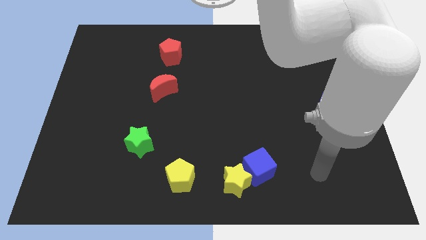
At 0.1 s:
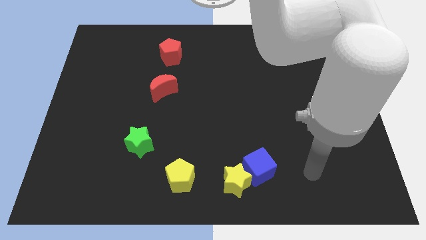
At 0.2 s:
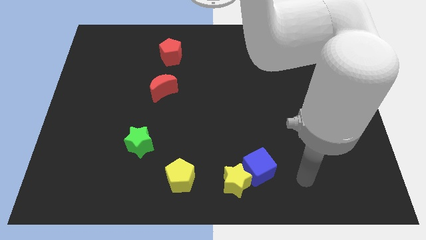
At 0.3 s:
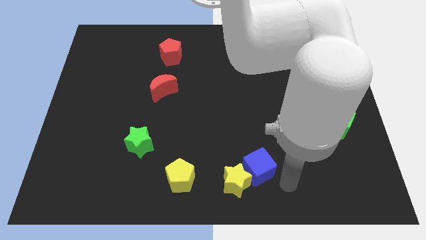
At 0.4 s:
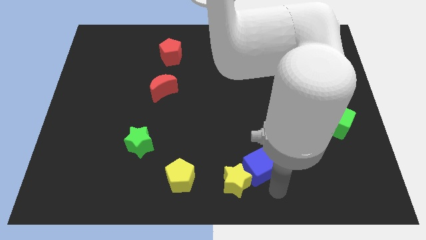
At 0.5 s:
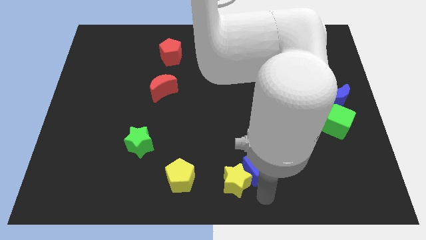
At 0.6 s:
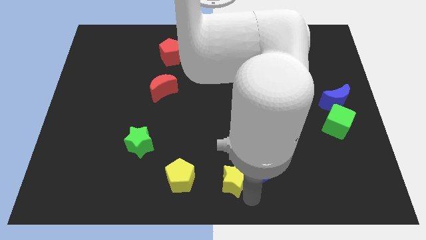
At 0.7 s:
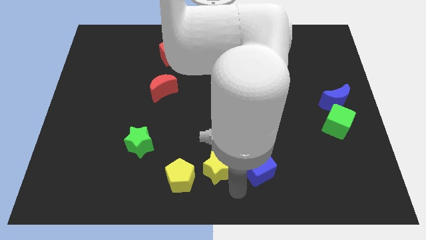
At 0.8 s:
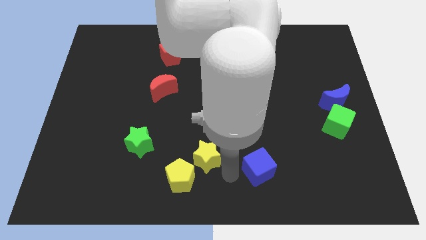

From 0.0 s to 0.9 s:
pull the blue cube apart from the yellow star

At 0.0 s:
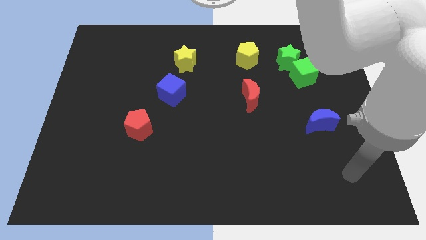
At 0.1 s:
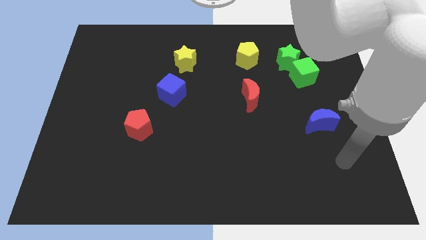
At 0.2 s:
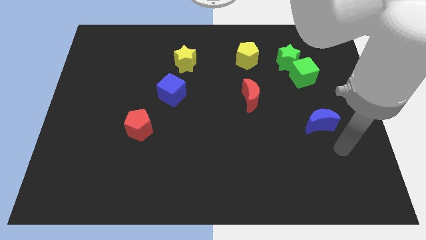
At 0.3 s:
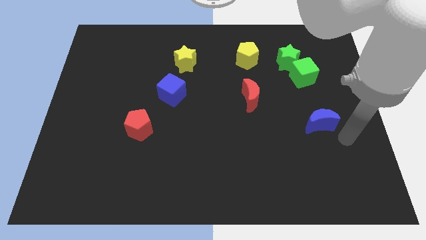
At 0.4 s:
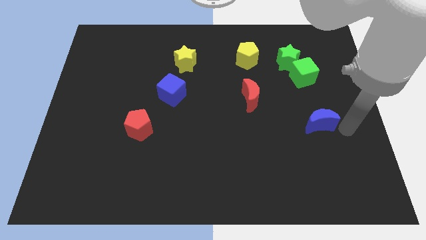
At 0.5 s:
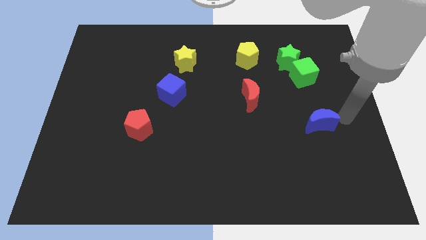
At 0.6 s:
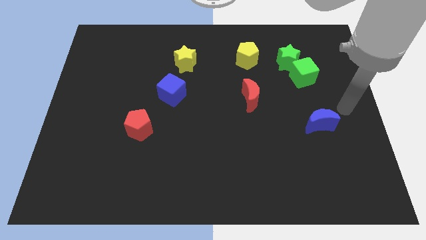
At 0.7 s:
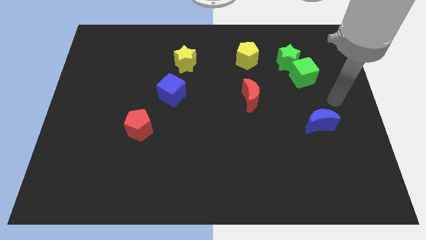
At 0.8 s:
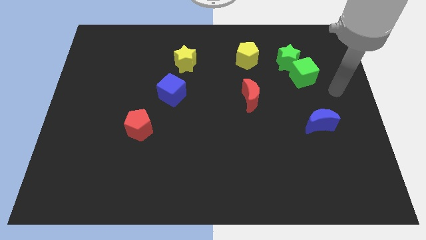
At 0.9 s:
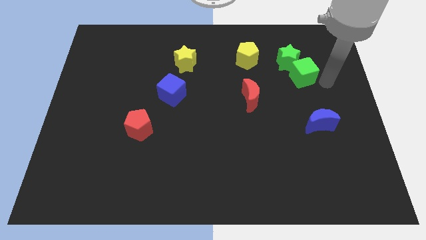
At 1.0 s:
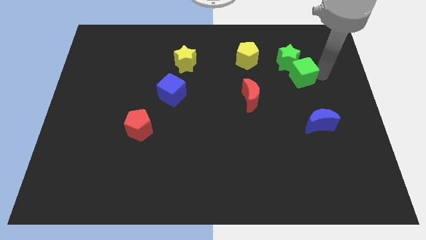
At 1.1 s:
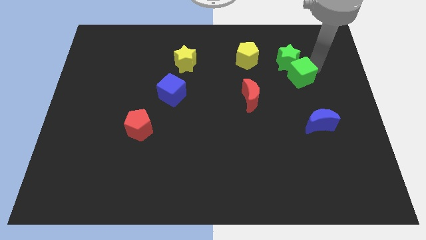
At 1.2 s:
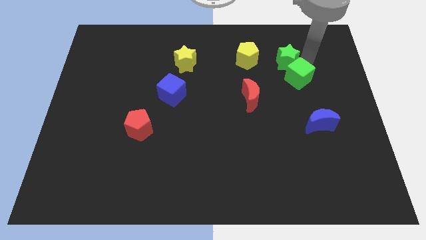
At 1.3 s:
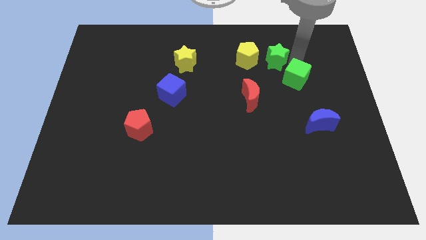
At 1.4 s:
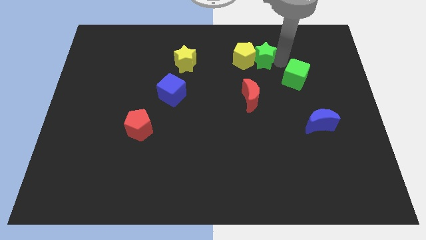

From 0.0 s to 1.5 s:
separate the green cube from the green star

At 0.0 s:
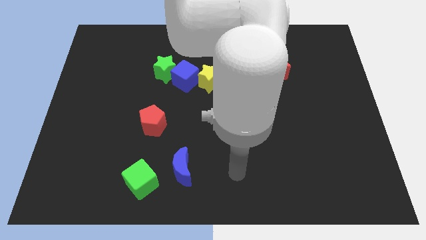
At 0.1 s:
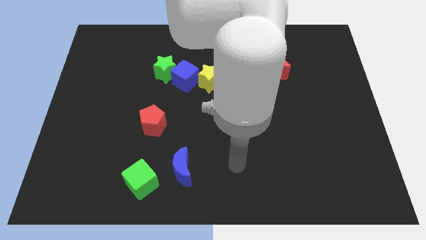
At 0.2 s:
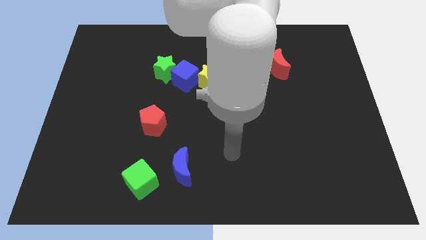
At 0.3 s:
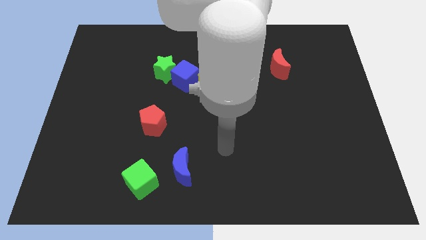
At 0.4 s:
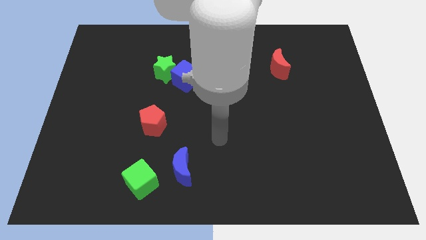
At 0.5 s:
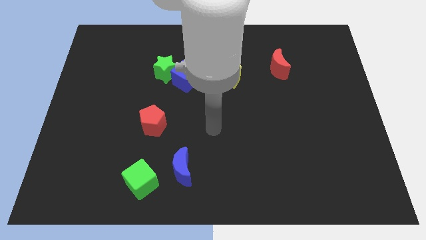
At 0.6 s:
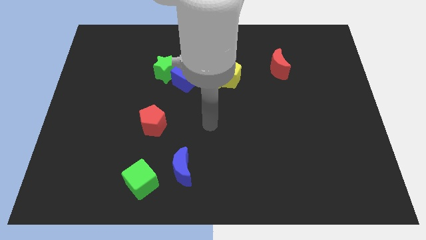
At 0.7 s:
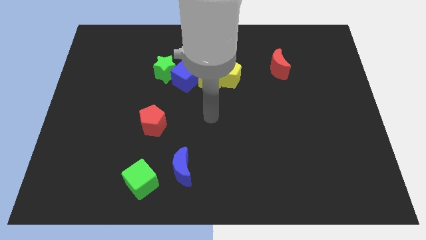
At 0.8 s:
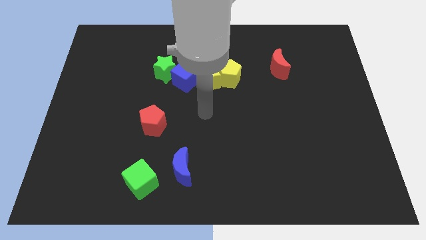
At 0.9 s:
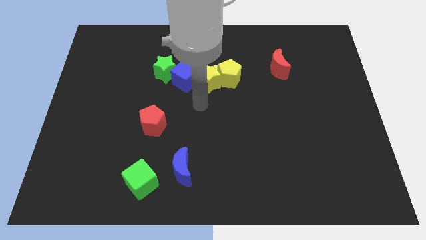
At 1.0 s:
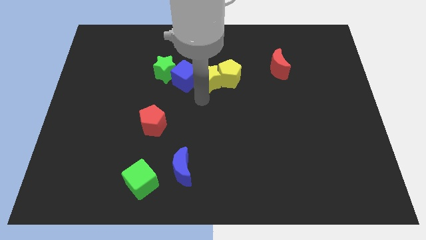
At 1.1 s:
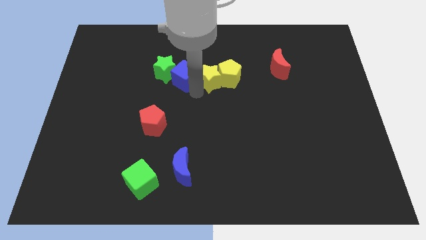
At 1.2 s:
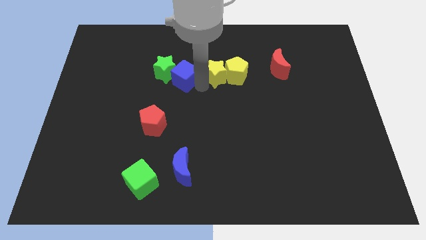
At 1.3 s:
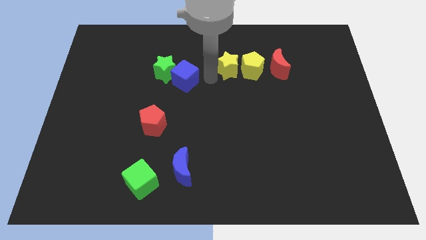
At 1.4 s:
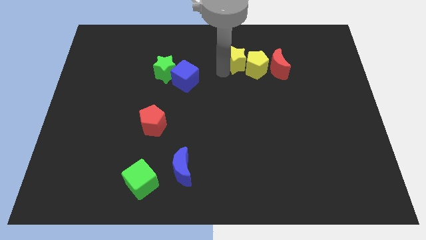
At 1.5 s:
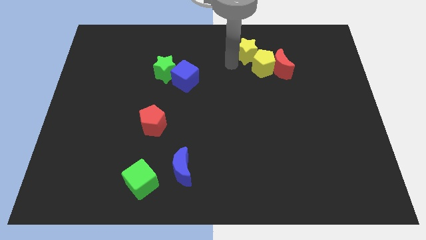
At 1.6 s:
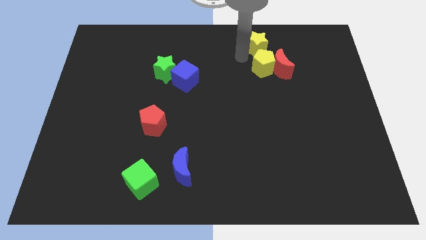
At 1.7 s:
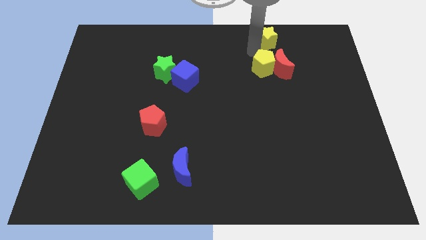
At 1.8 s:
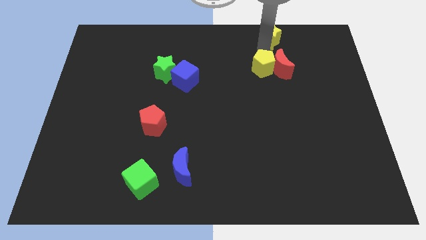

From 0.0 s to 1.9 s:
pull the yellow pentagon apart from the yellow star

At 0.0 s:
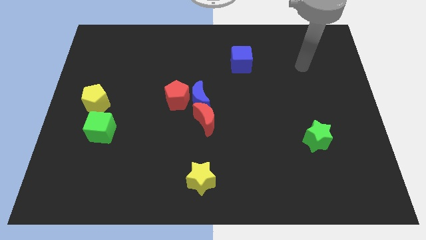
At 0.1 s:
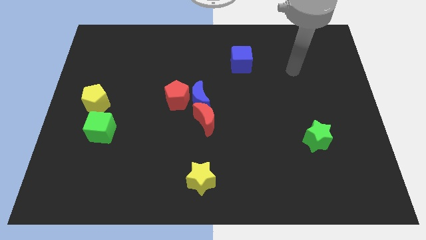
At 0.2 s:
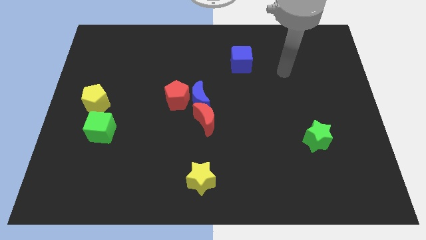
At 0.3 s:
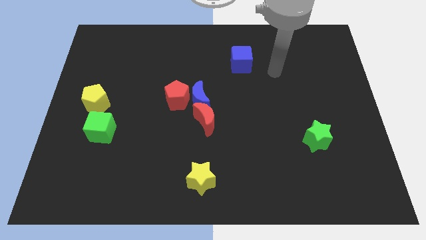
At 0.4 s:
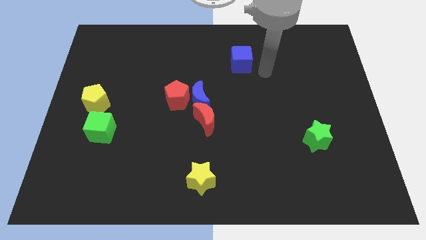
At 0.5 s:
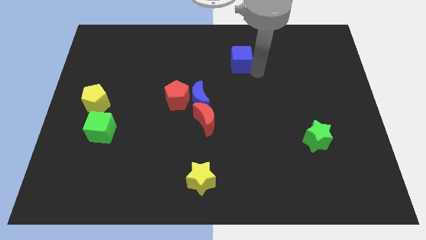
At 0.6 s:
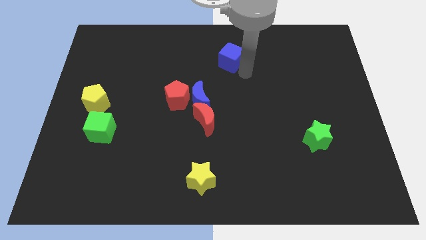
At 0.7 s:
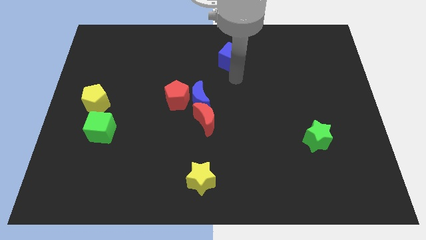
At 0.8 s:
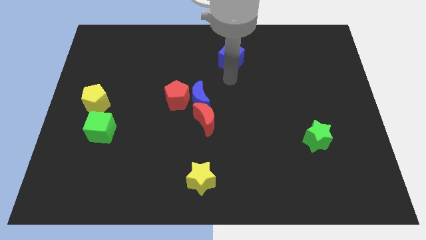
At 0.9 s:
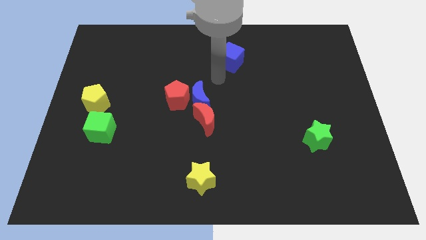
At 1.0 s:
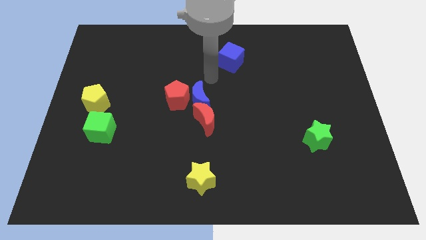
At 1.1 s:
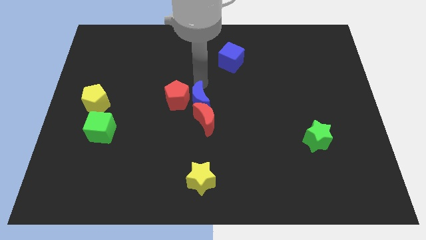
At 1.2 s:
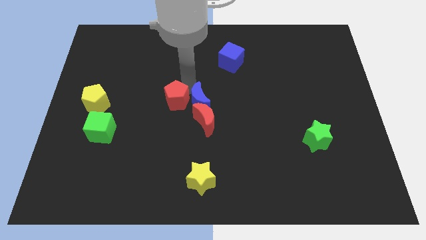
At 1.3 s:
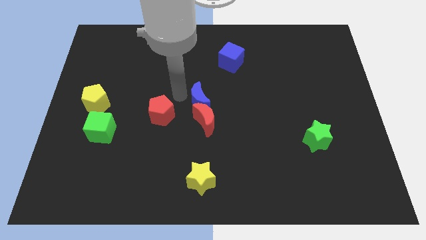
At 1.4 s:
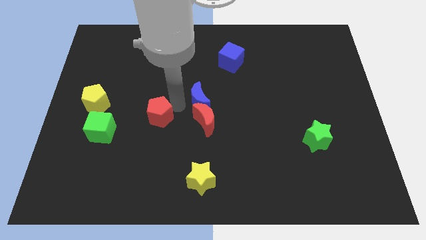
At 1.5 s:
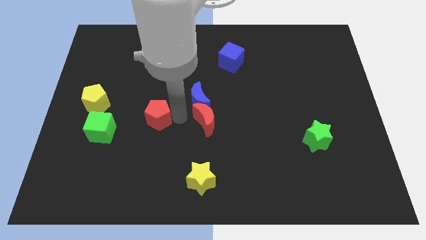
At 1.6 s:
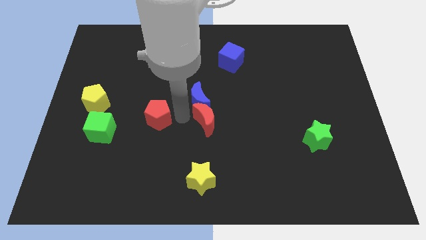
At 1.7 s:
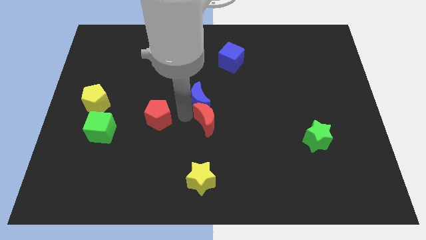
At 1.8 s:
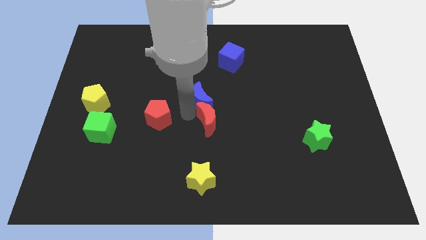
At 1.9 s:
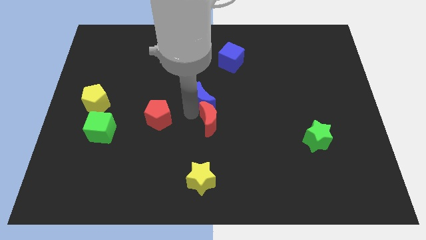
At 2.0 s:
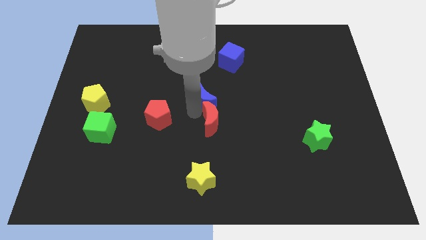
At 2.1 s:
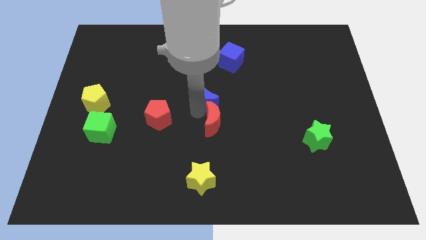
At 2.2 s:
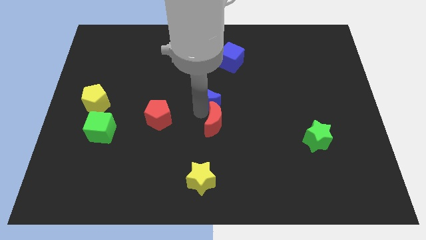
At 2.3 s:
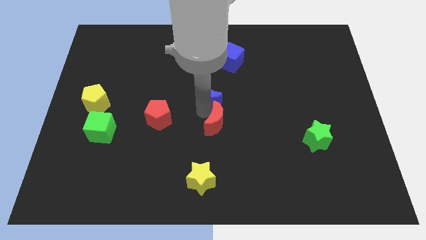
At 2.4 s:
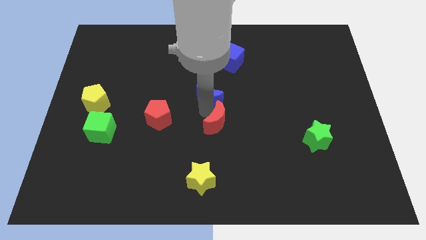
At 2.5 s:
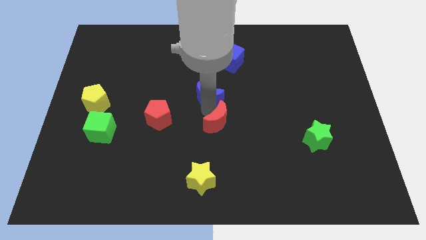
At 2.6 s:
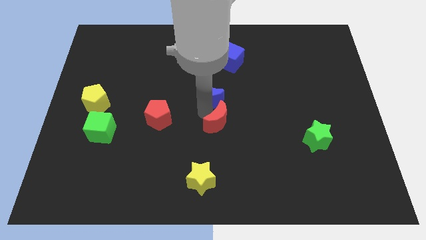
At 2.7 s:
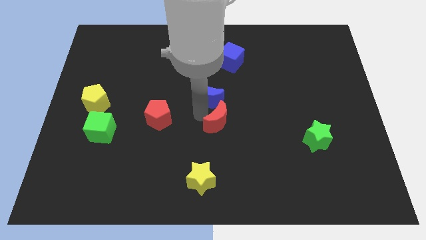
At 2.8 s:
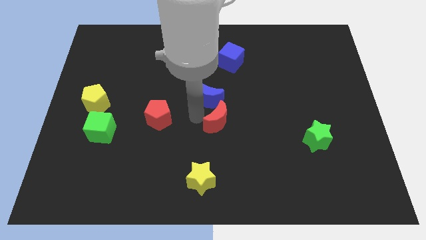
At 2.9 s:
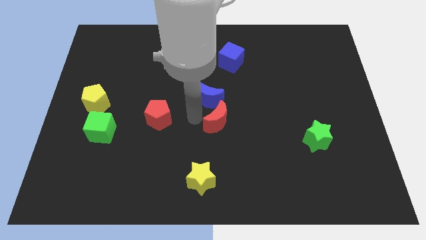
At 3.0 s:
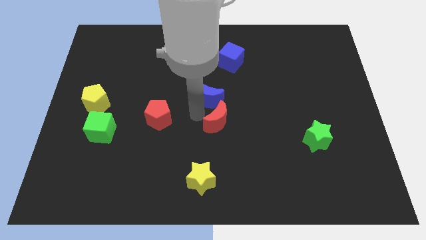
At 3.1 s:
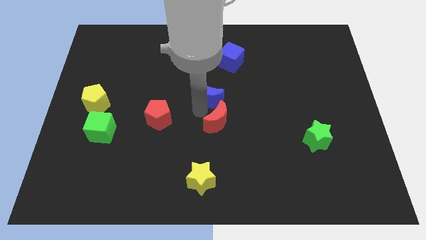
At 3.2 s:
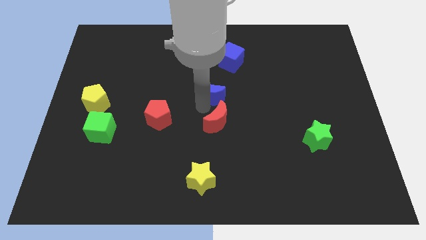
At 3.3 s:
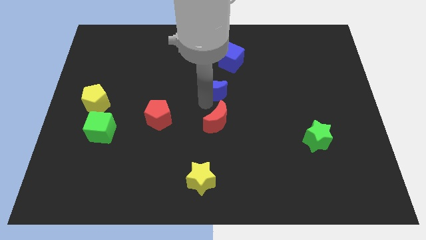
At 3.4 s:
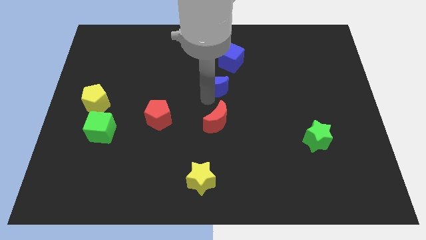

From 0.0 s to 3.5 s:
move the blue moon away from the red pentagon and red moon

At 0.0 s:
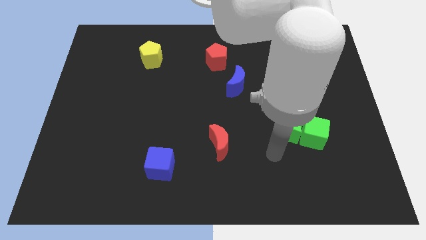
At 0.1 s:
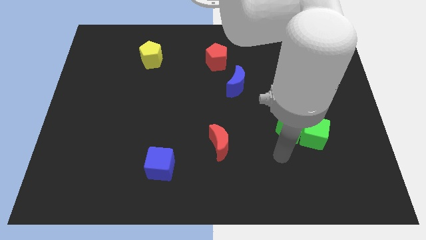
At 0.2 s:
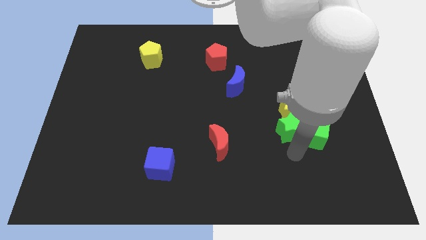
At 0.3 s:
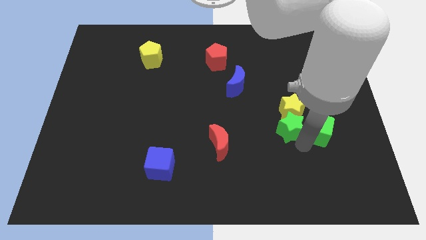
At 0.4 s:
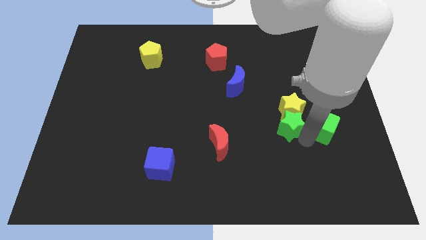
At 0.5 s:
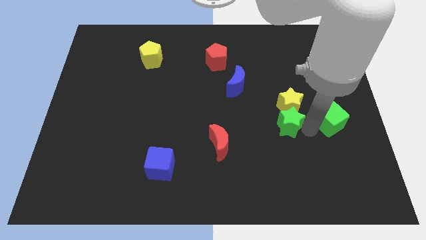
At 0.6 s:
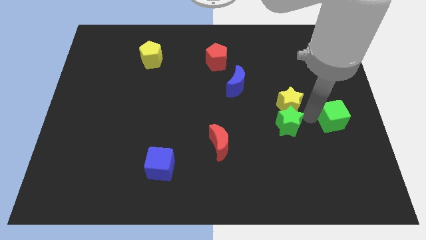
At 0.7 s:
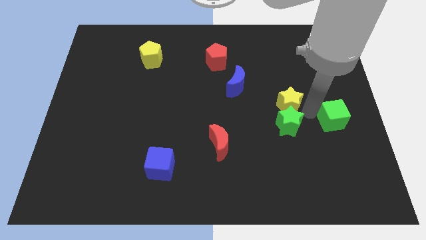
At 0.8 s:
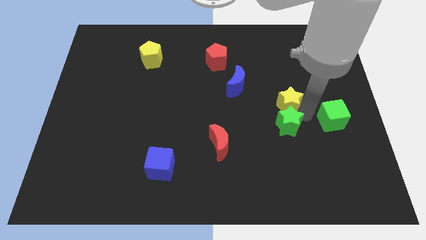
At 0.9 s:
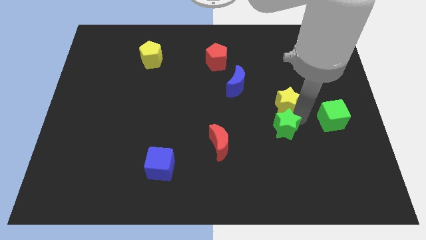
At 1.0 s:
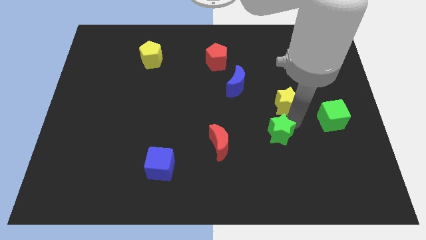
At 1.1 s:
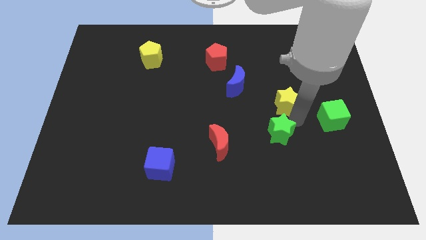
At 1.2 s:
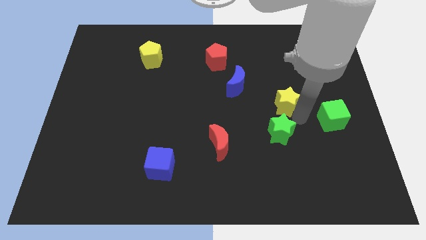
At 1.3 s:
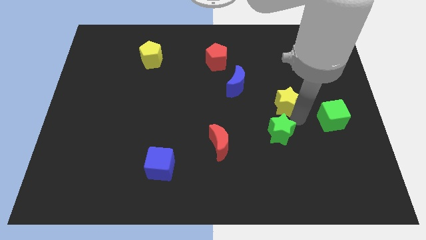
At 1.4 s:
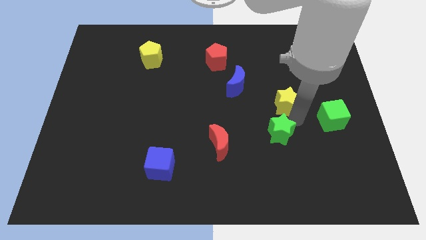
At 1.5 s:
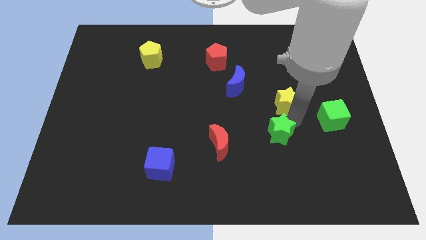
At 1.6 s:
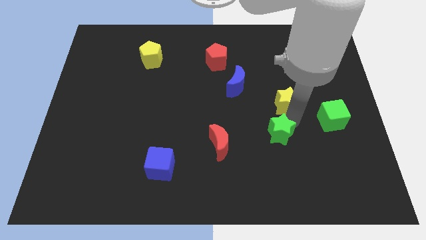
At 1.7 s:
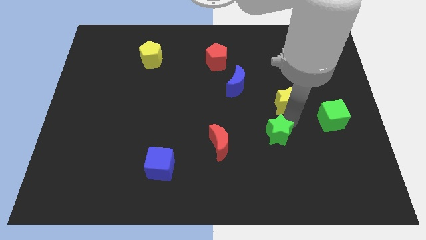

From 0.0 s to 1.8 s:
move the green star away from the green cube and yellow star
